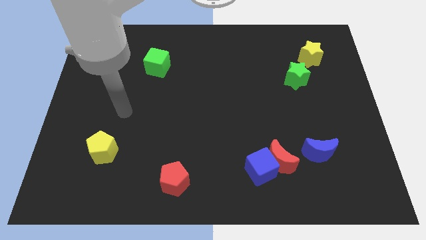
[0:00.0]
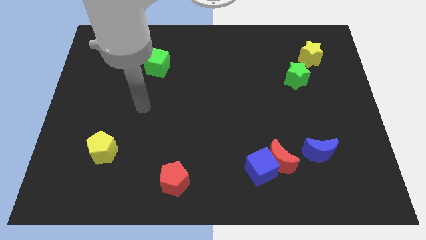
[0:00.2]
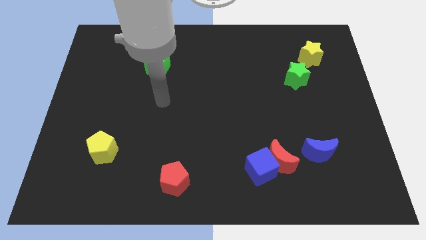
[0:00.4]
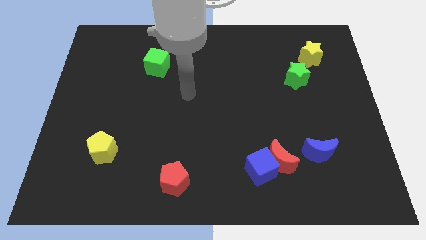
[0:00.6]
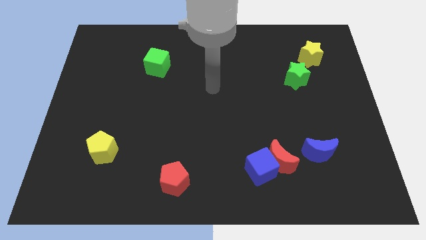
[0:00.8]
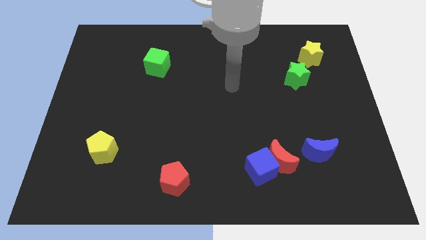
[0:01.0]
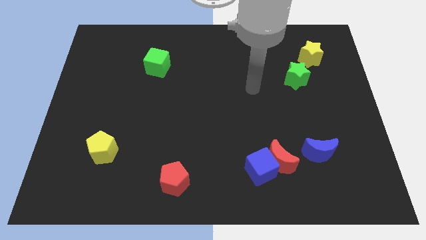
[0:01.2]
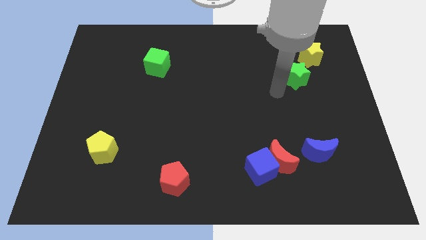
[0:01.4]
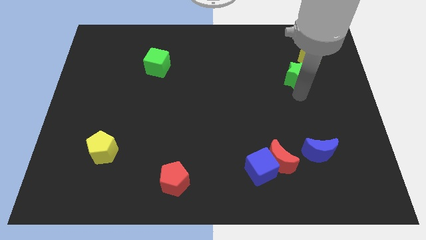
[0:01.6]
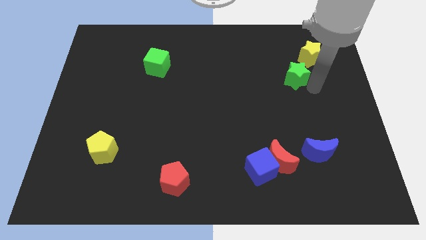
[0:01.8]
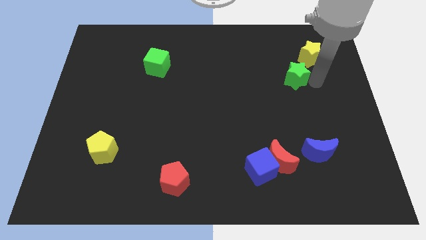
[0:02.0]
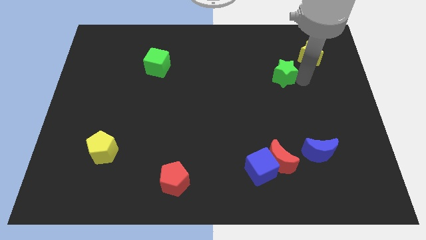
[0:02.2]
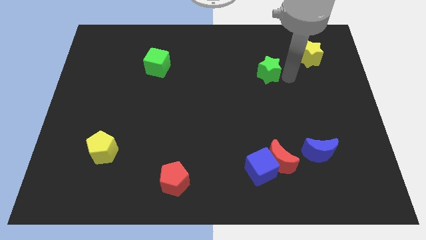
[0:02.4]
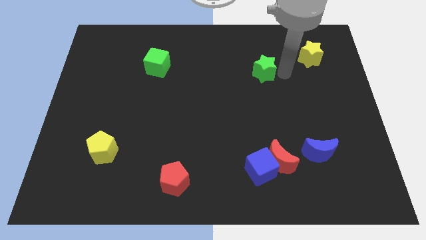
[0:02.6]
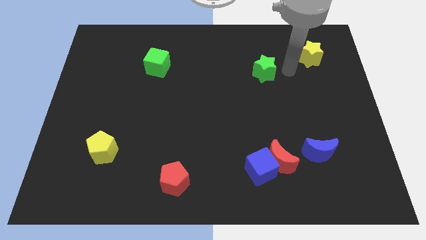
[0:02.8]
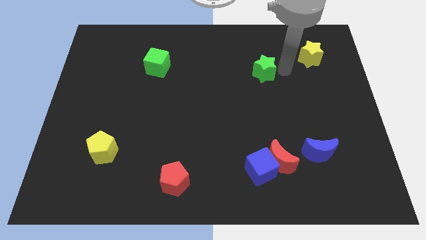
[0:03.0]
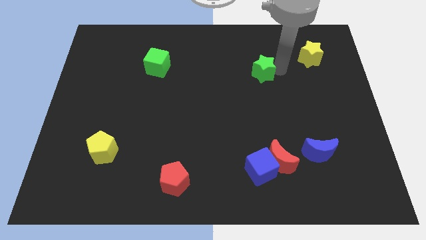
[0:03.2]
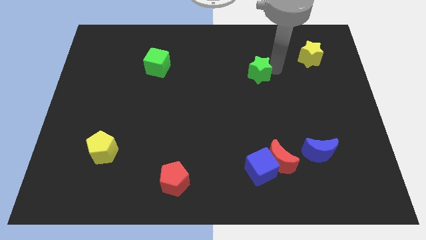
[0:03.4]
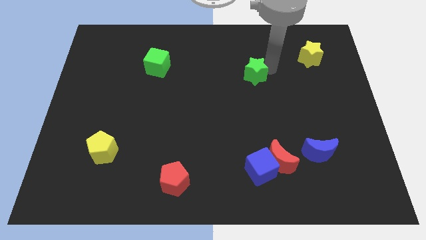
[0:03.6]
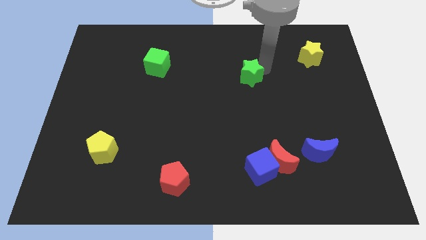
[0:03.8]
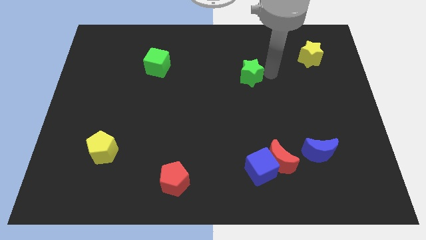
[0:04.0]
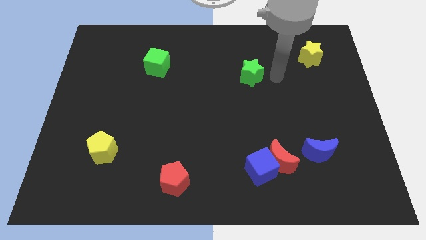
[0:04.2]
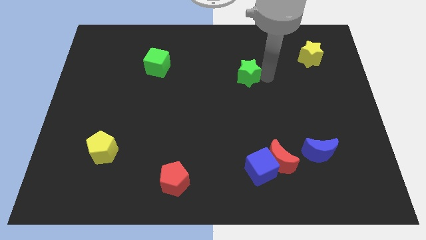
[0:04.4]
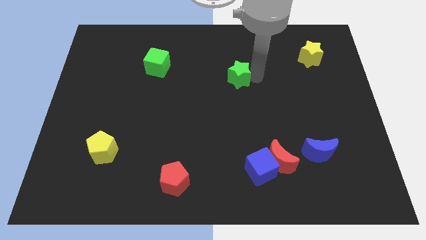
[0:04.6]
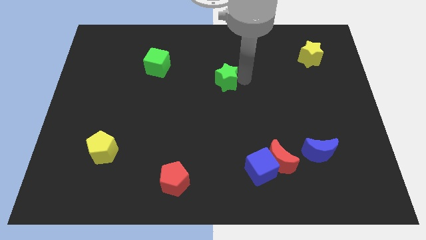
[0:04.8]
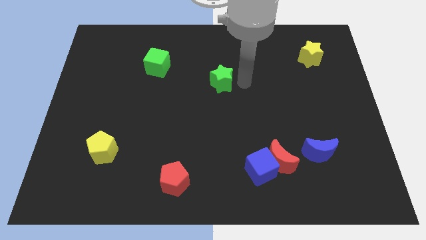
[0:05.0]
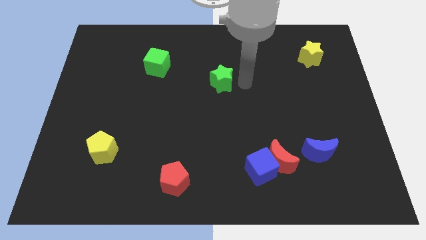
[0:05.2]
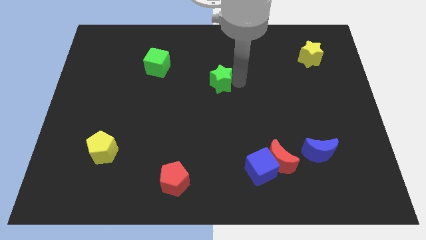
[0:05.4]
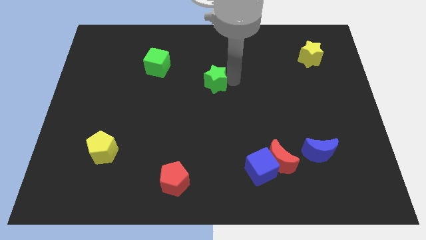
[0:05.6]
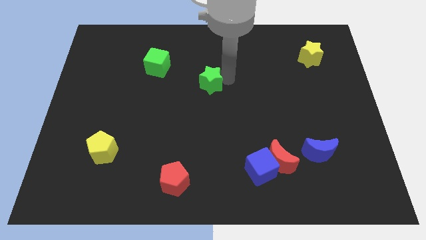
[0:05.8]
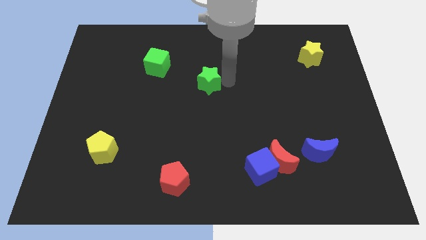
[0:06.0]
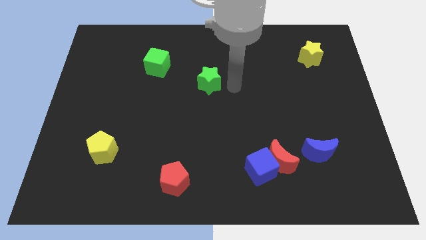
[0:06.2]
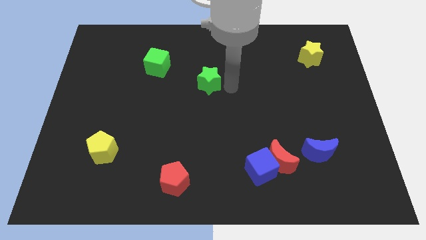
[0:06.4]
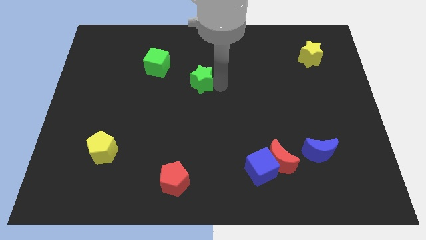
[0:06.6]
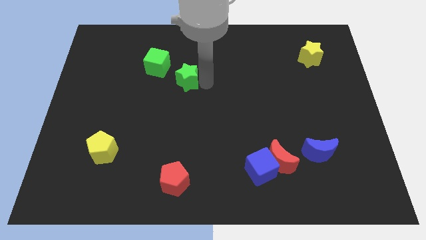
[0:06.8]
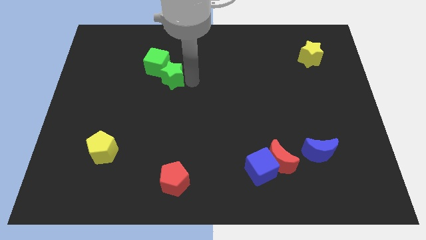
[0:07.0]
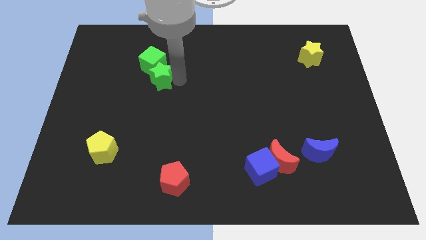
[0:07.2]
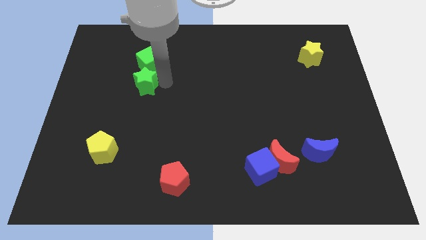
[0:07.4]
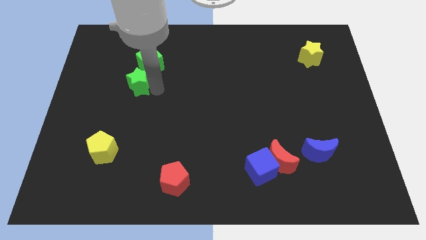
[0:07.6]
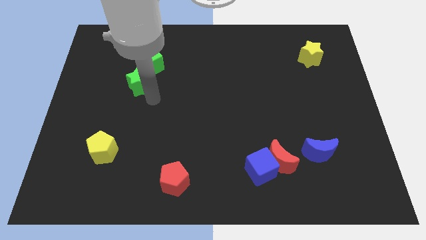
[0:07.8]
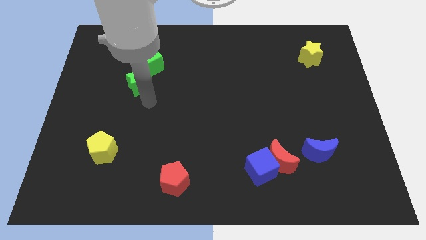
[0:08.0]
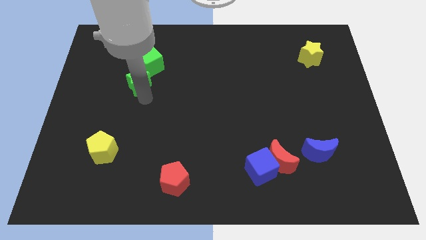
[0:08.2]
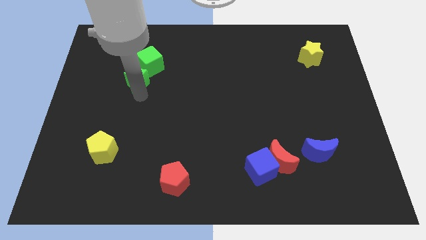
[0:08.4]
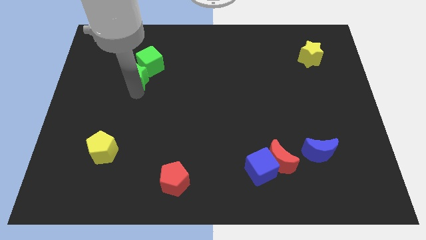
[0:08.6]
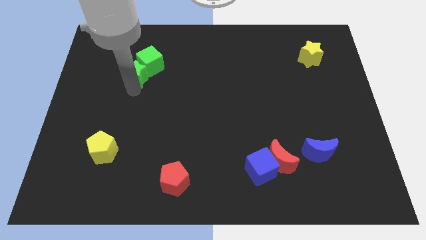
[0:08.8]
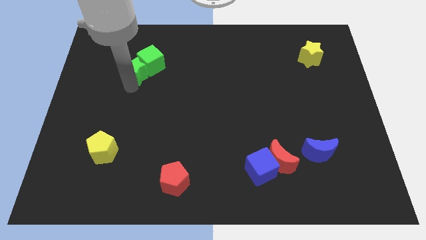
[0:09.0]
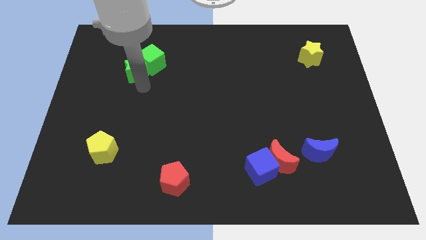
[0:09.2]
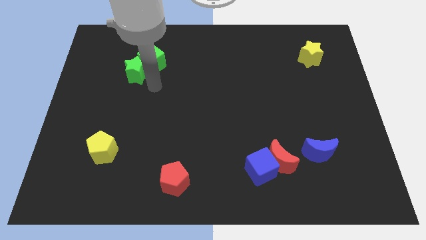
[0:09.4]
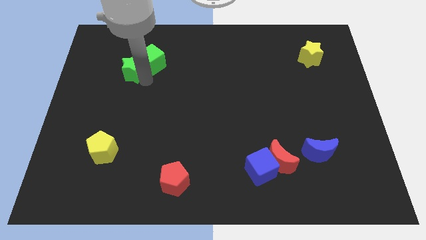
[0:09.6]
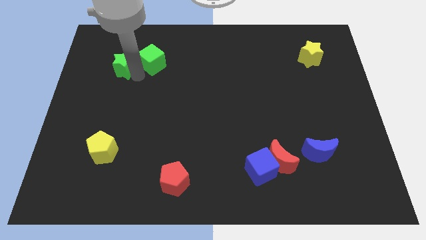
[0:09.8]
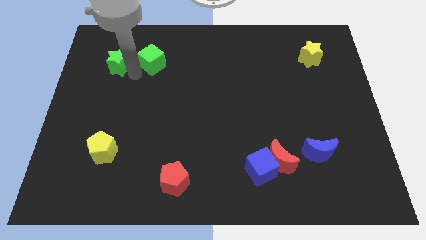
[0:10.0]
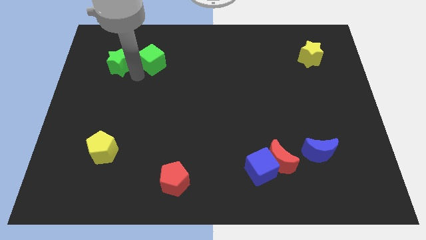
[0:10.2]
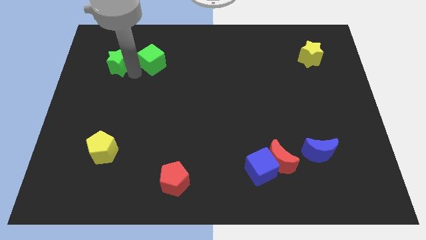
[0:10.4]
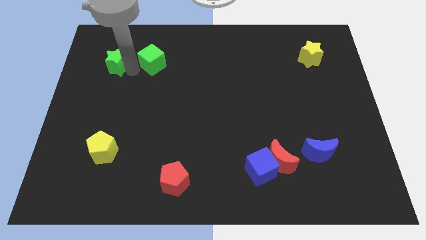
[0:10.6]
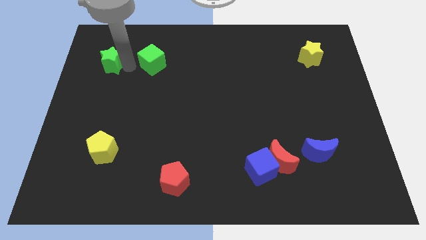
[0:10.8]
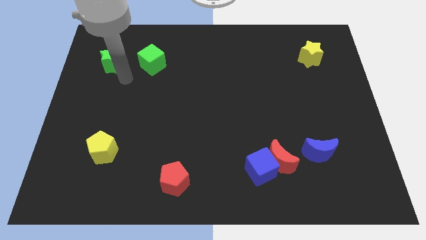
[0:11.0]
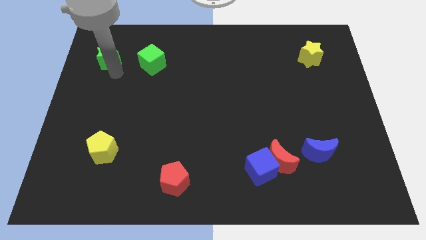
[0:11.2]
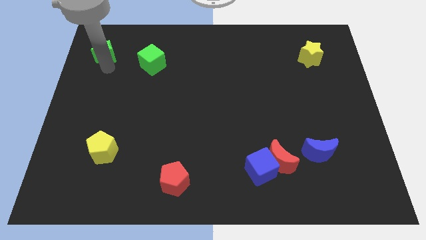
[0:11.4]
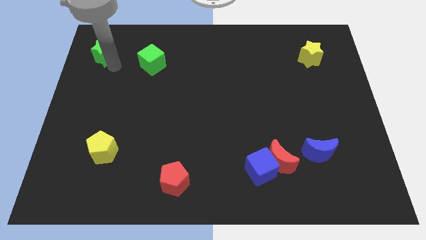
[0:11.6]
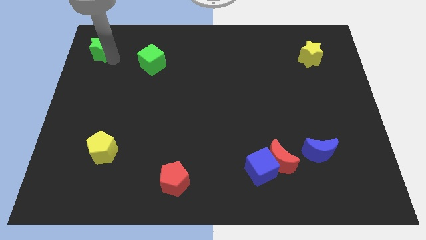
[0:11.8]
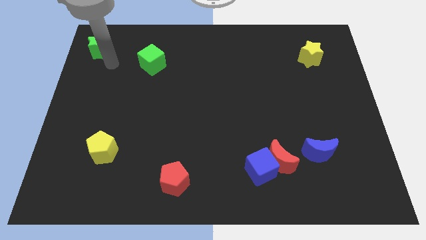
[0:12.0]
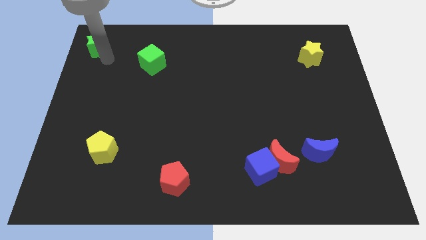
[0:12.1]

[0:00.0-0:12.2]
push the green star to the top left
